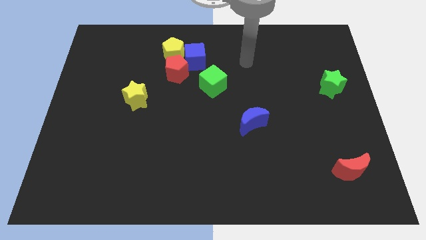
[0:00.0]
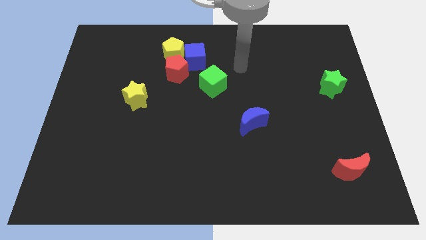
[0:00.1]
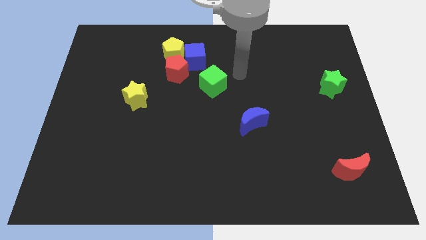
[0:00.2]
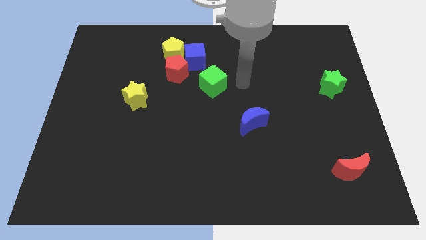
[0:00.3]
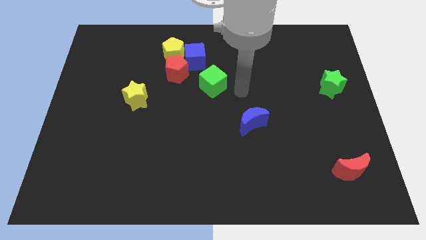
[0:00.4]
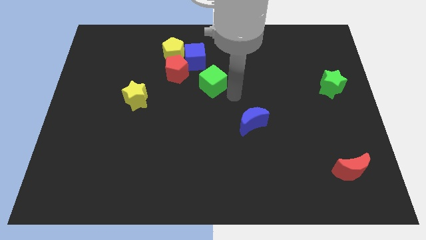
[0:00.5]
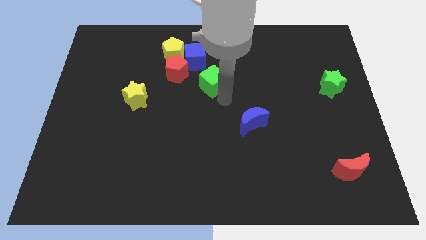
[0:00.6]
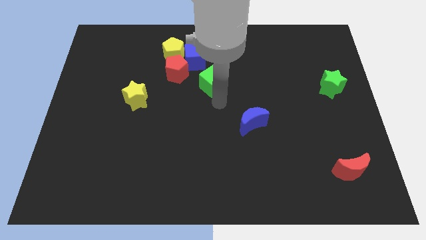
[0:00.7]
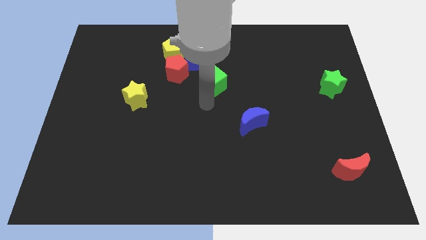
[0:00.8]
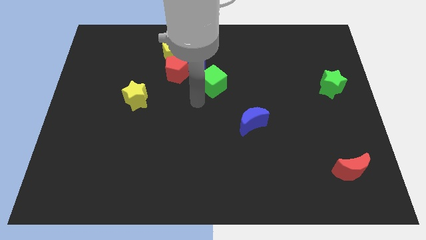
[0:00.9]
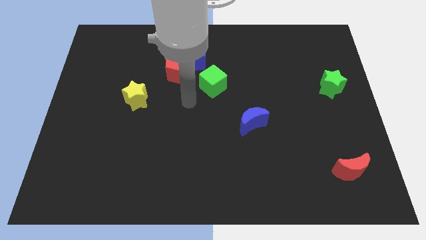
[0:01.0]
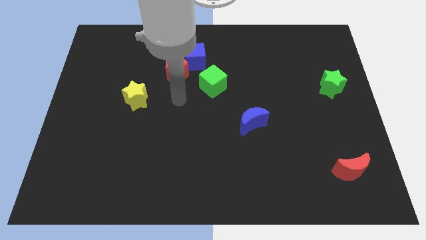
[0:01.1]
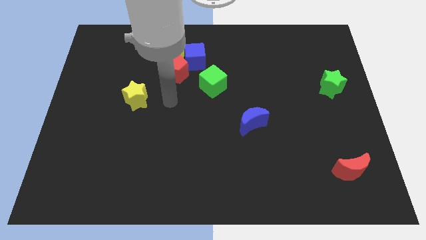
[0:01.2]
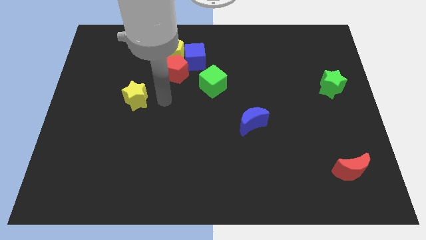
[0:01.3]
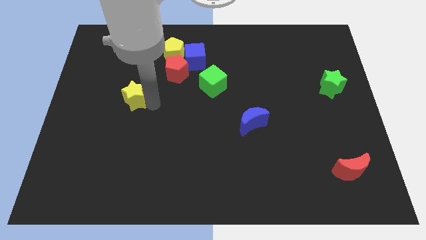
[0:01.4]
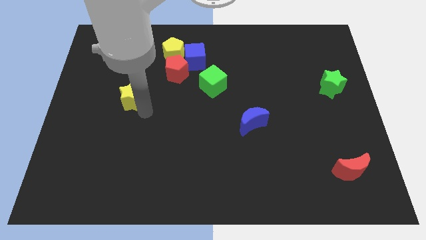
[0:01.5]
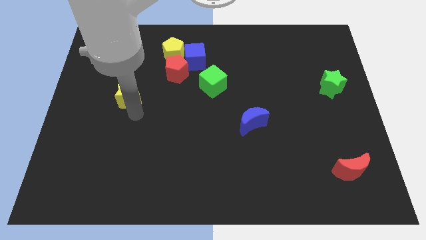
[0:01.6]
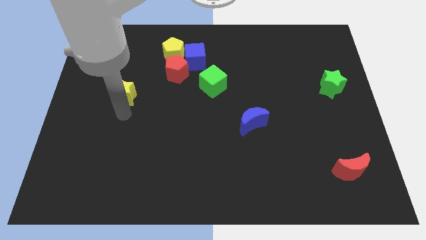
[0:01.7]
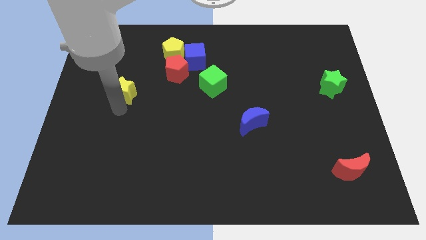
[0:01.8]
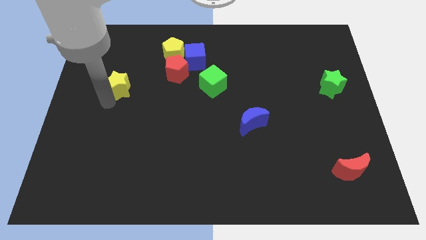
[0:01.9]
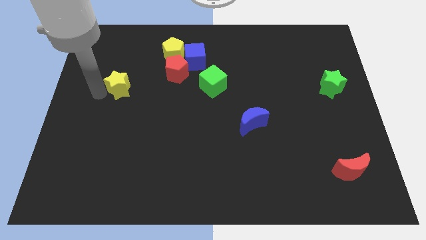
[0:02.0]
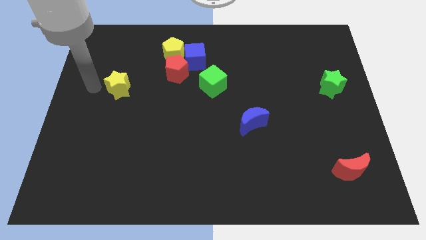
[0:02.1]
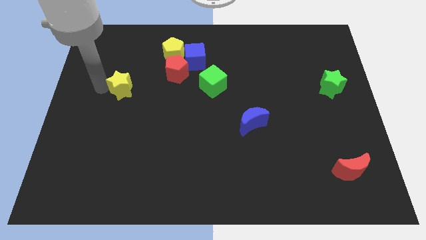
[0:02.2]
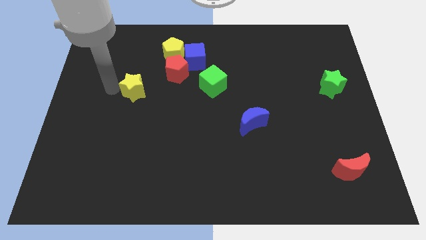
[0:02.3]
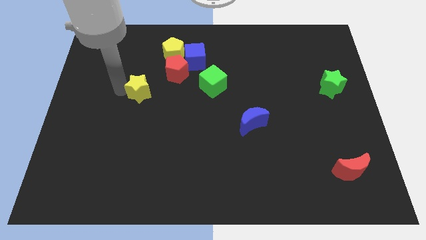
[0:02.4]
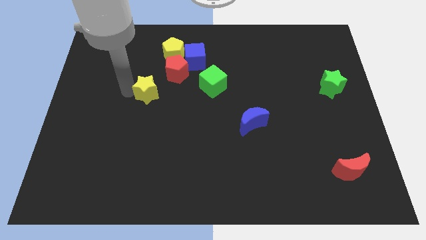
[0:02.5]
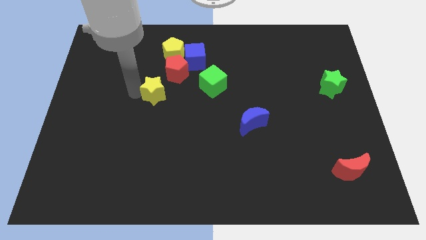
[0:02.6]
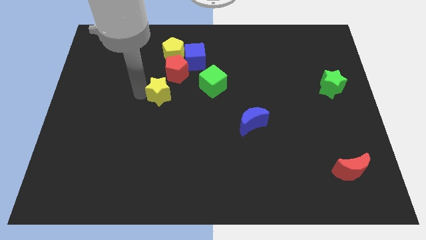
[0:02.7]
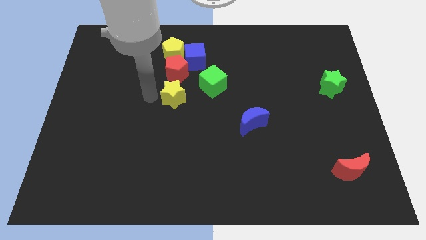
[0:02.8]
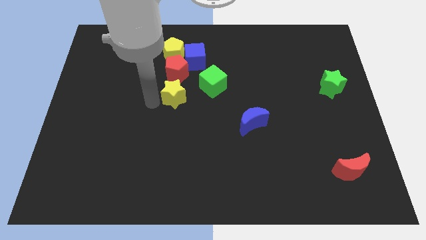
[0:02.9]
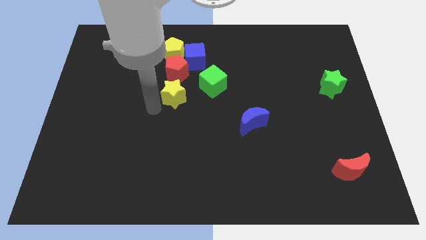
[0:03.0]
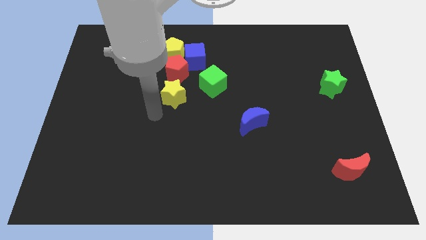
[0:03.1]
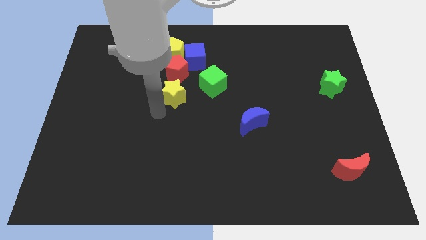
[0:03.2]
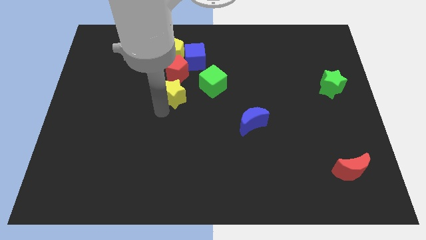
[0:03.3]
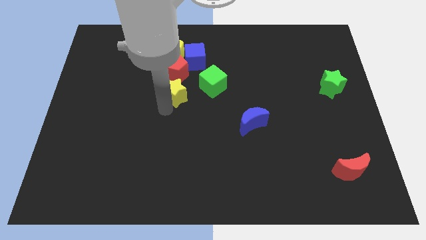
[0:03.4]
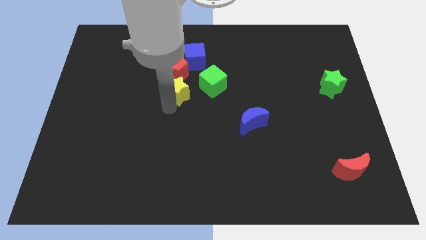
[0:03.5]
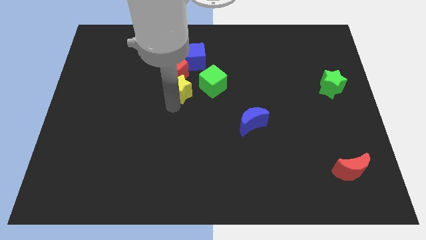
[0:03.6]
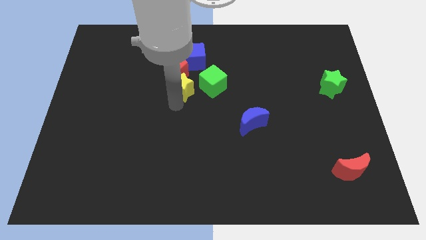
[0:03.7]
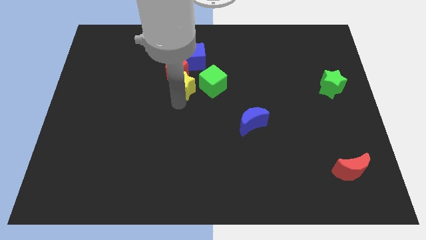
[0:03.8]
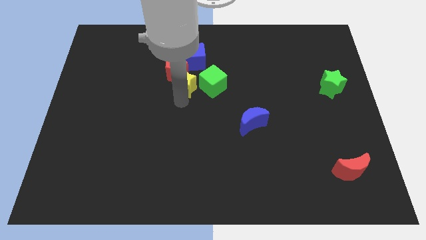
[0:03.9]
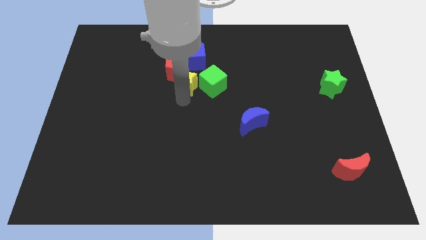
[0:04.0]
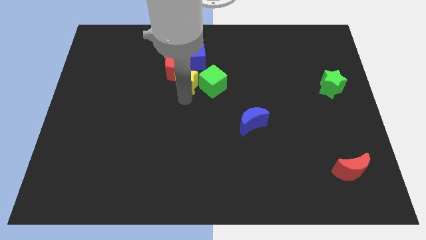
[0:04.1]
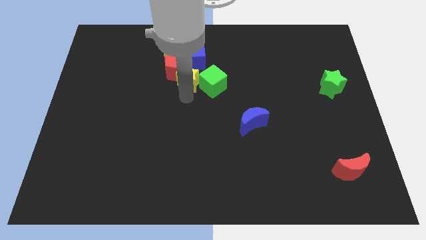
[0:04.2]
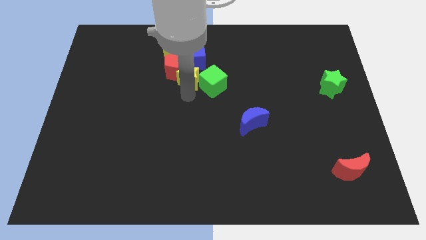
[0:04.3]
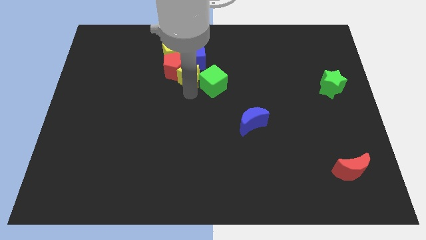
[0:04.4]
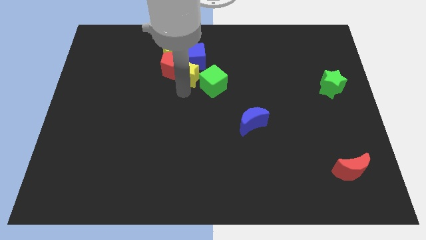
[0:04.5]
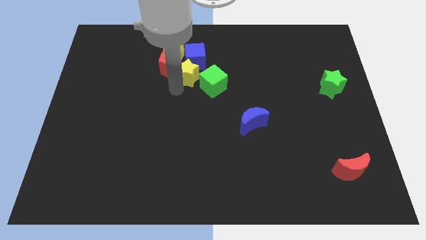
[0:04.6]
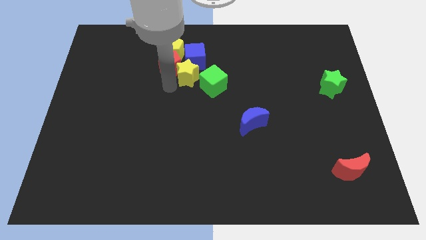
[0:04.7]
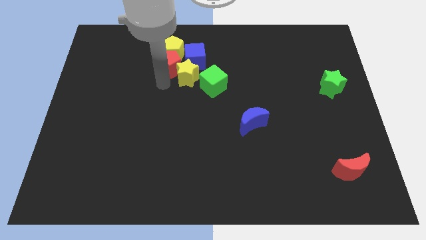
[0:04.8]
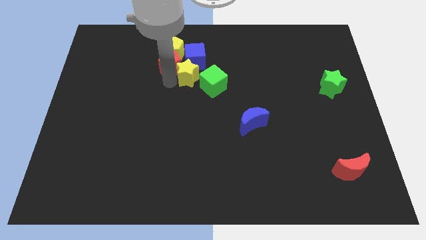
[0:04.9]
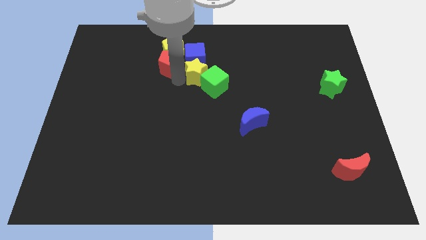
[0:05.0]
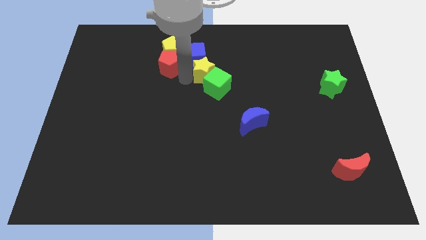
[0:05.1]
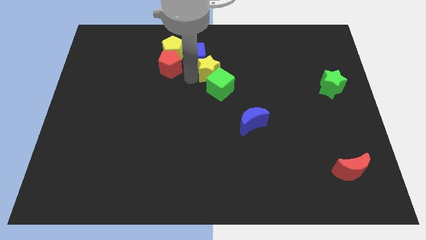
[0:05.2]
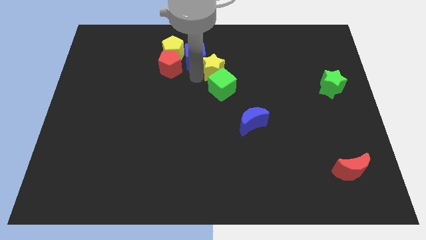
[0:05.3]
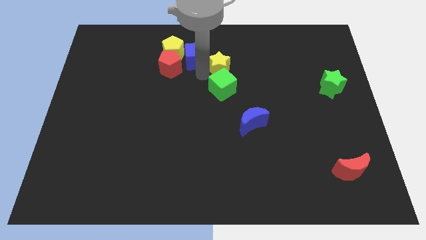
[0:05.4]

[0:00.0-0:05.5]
slide the yellow star to the top right of the green cube

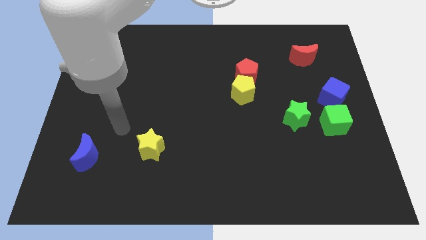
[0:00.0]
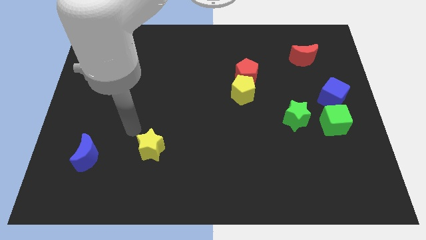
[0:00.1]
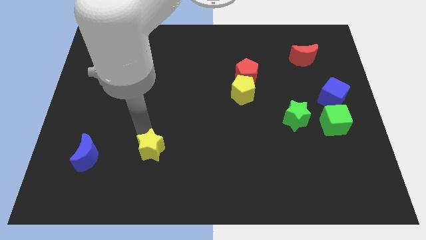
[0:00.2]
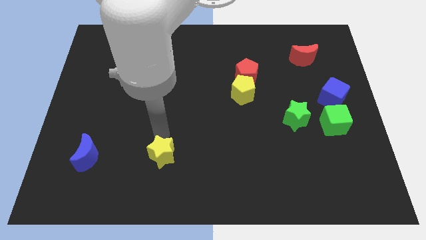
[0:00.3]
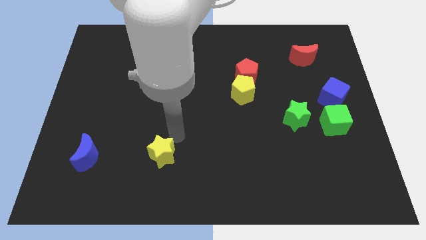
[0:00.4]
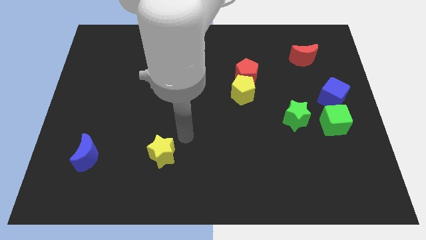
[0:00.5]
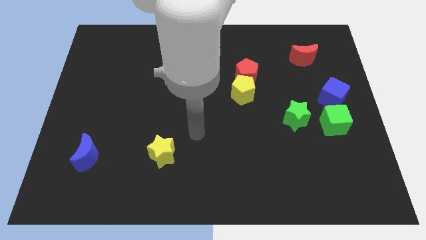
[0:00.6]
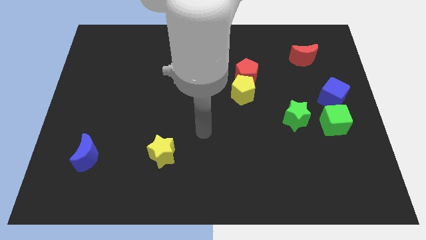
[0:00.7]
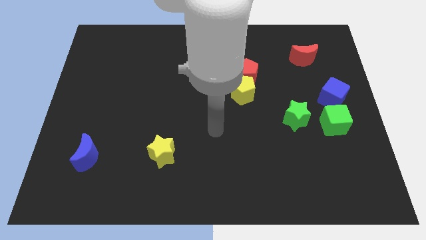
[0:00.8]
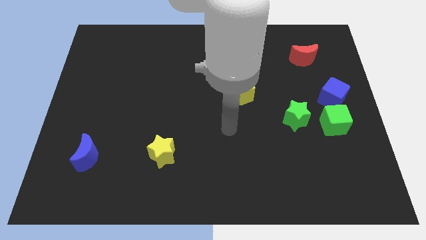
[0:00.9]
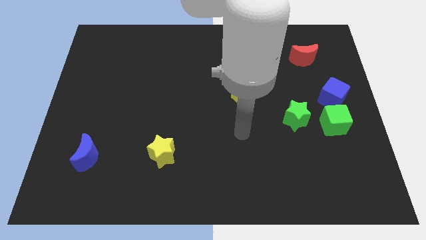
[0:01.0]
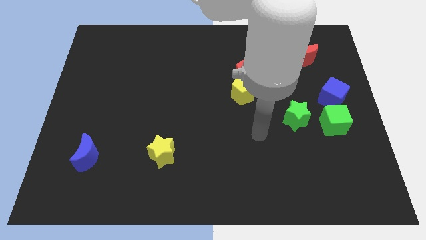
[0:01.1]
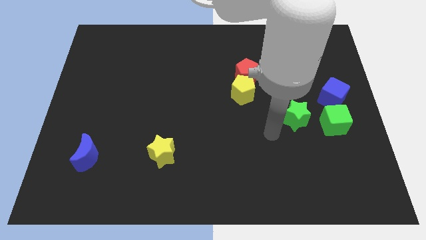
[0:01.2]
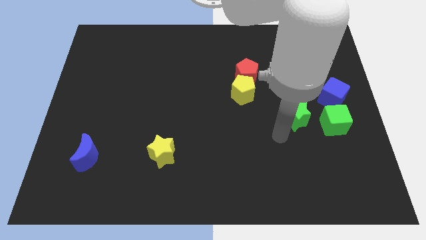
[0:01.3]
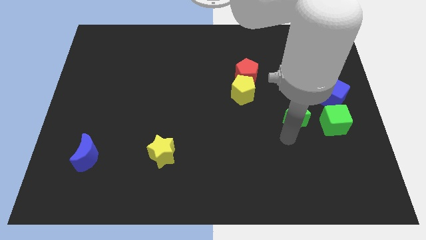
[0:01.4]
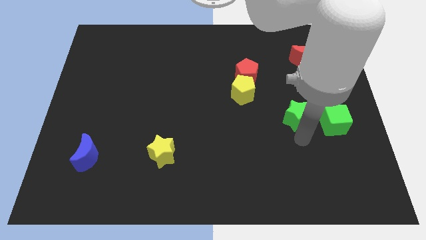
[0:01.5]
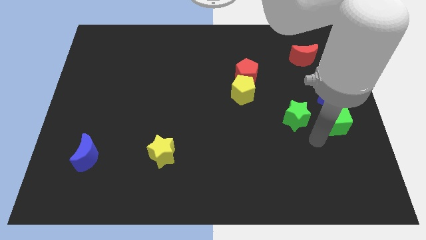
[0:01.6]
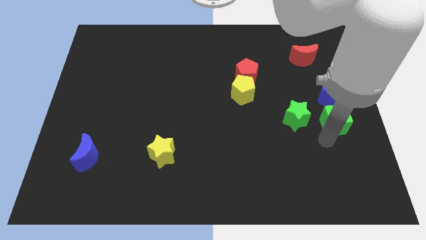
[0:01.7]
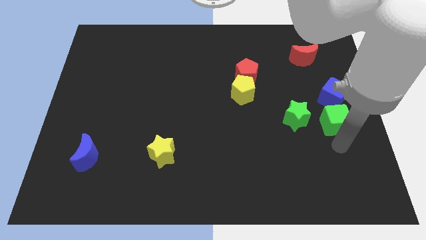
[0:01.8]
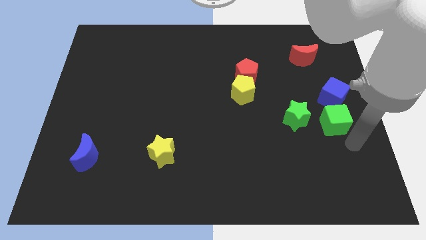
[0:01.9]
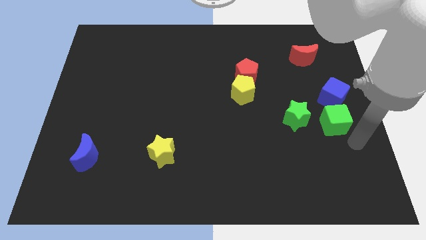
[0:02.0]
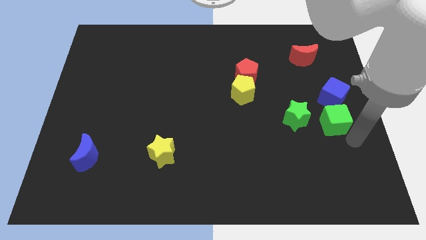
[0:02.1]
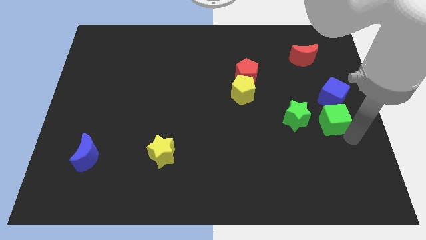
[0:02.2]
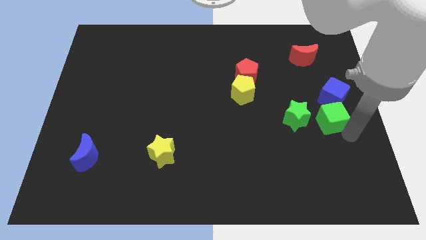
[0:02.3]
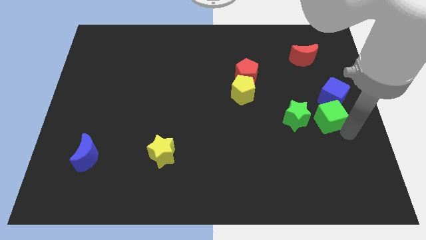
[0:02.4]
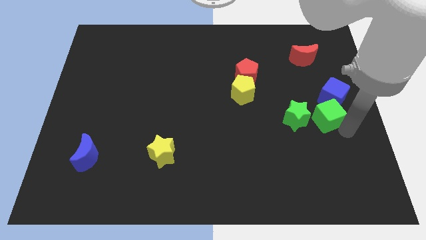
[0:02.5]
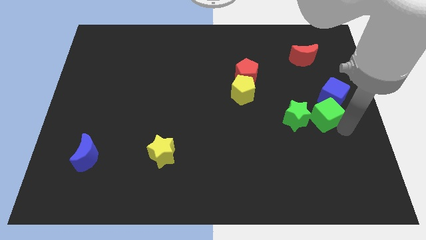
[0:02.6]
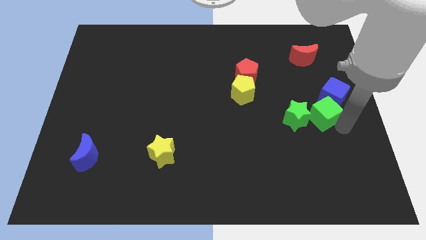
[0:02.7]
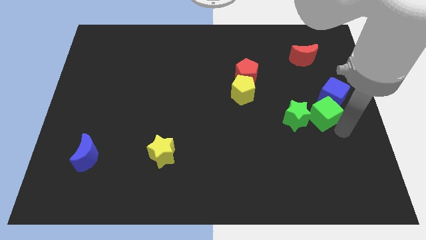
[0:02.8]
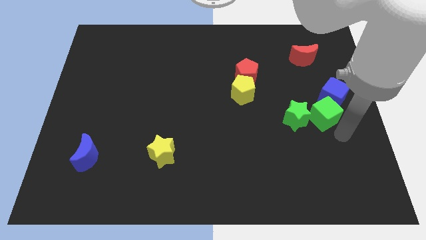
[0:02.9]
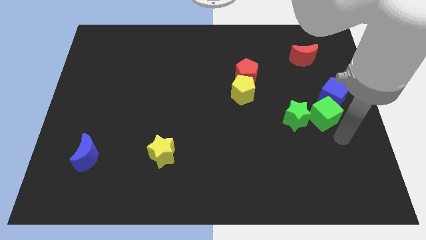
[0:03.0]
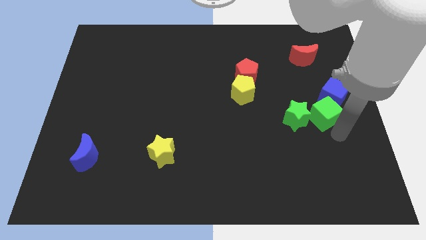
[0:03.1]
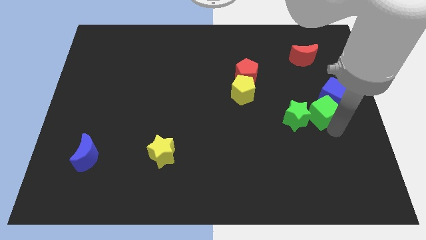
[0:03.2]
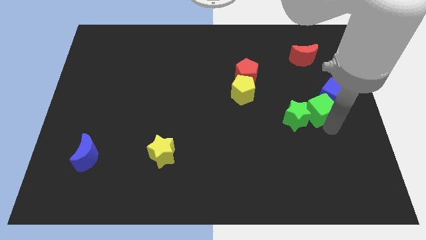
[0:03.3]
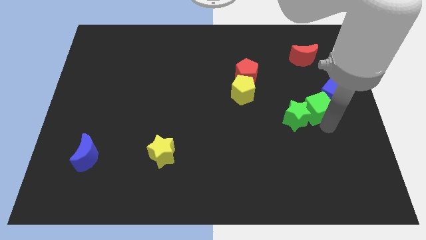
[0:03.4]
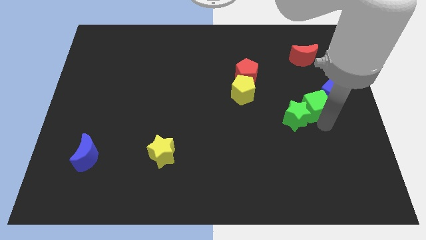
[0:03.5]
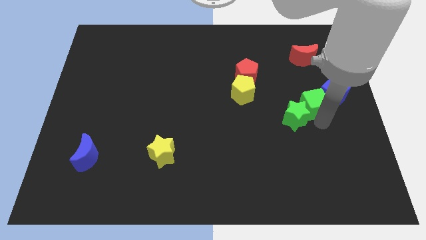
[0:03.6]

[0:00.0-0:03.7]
move the green cube to the bottom side of the red moon
